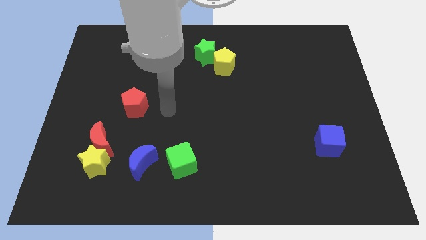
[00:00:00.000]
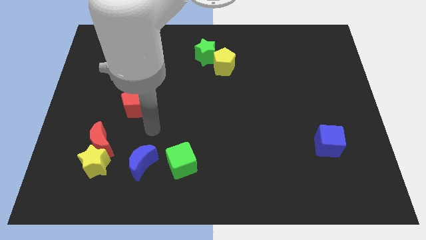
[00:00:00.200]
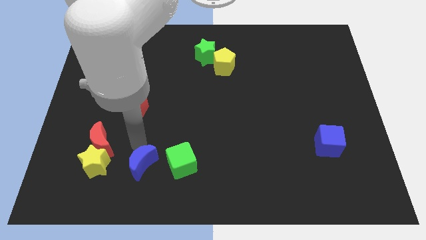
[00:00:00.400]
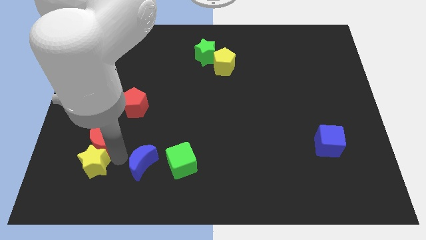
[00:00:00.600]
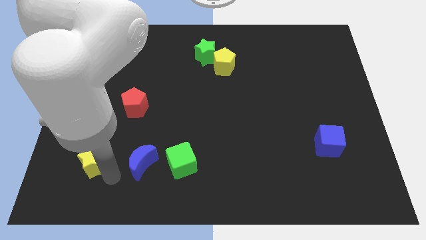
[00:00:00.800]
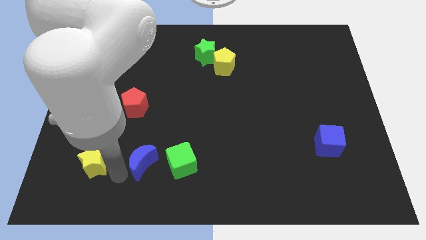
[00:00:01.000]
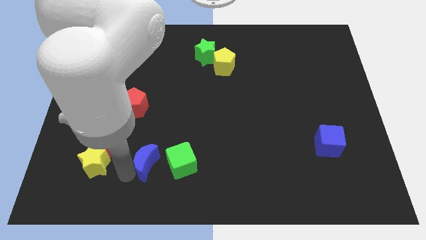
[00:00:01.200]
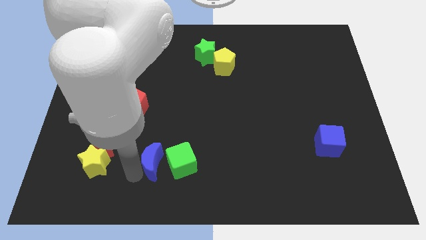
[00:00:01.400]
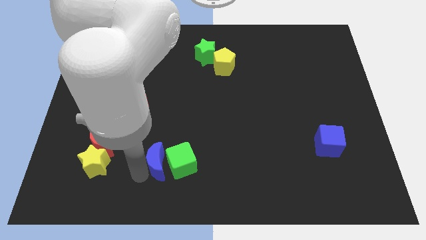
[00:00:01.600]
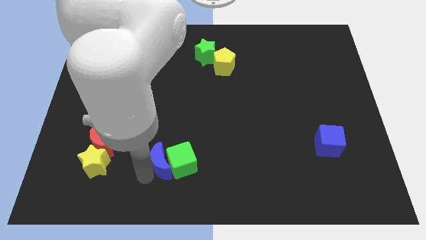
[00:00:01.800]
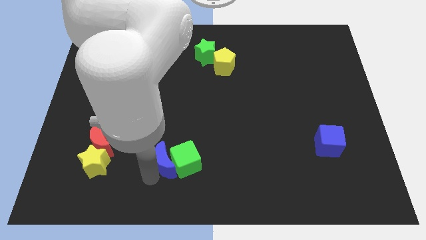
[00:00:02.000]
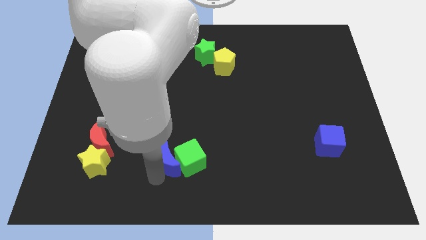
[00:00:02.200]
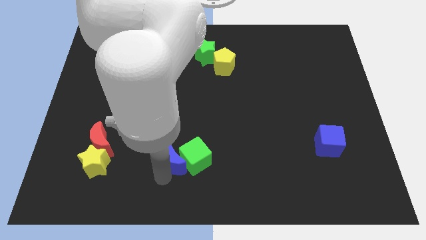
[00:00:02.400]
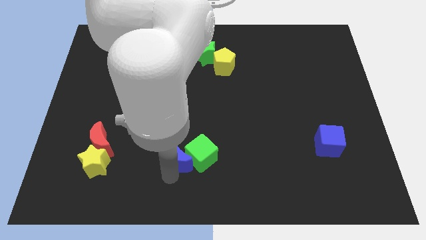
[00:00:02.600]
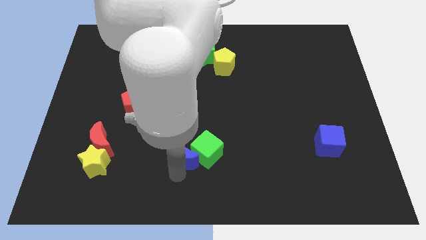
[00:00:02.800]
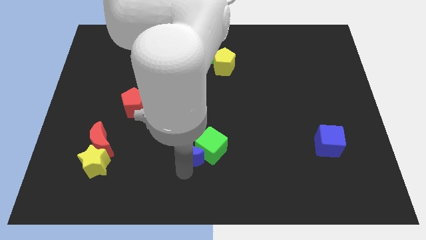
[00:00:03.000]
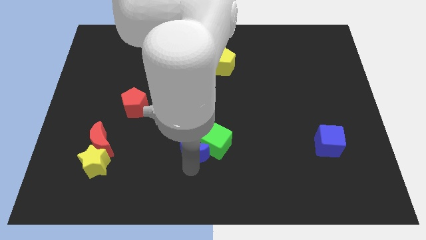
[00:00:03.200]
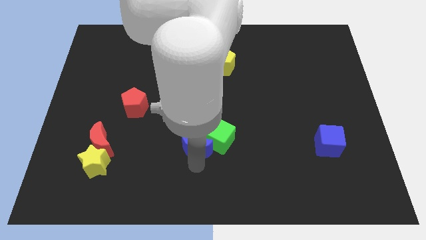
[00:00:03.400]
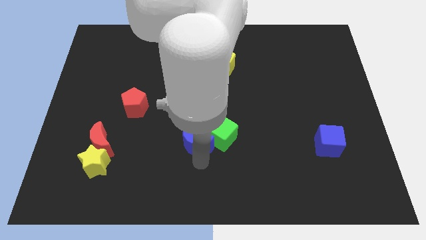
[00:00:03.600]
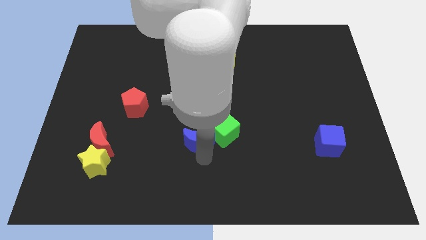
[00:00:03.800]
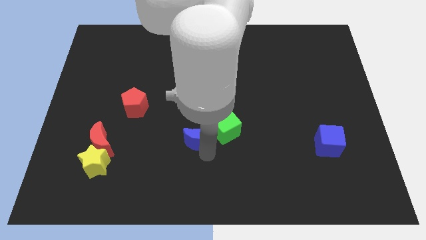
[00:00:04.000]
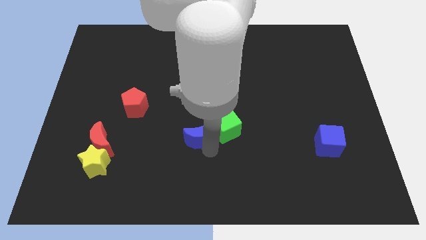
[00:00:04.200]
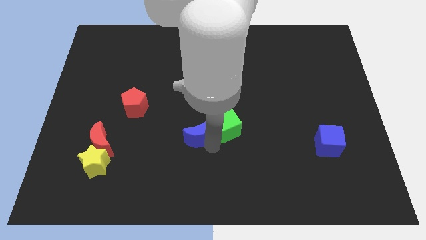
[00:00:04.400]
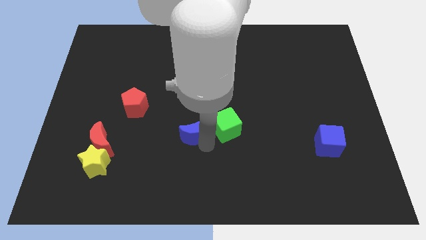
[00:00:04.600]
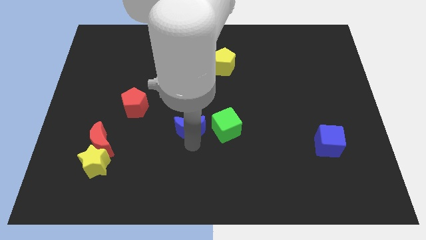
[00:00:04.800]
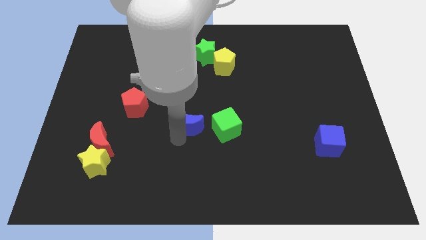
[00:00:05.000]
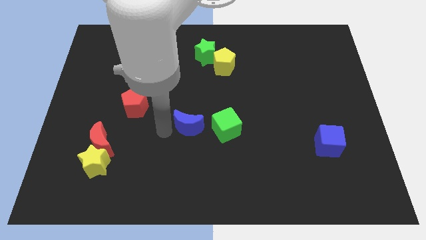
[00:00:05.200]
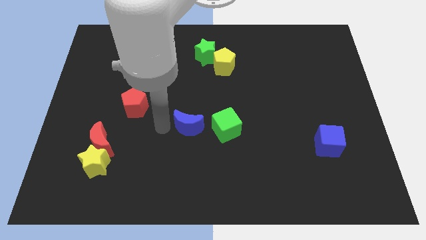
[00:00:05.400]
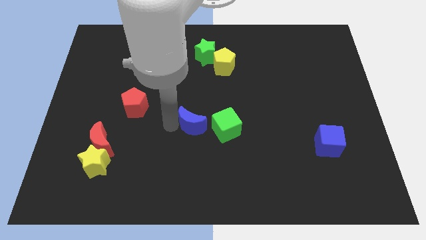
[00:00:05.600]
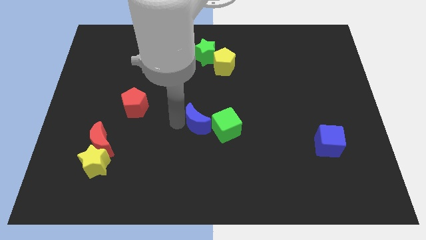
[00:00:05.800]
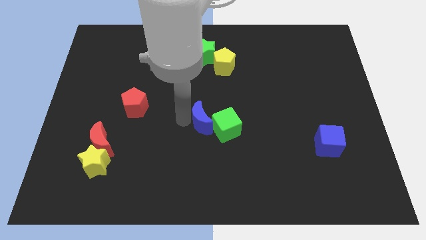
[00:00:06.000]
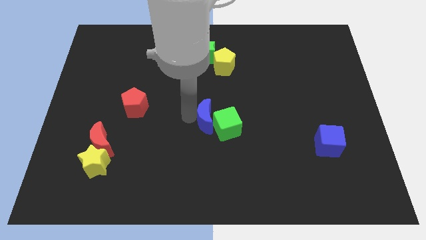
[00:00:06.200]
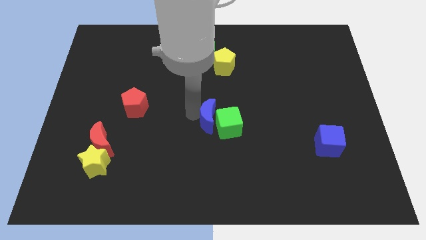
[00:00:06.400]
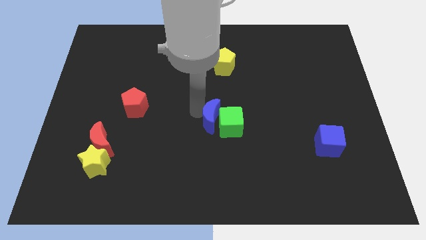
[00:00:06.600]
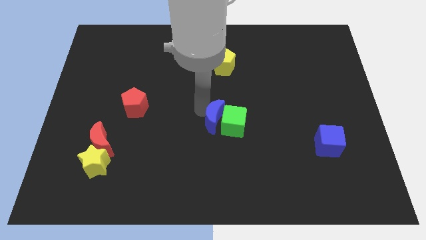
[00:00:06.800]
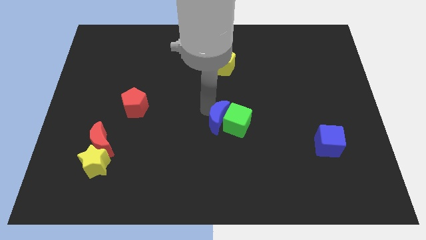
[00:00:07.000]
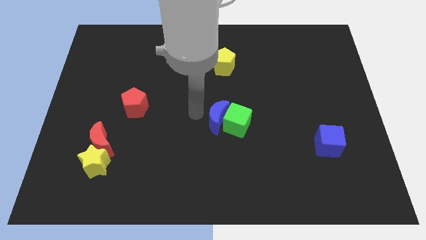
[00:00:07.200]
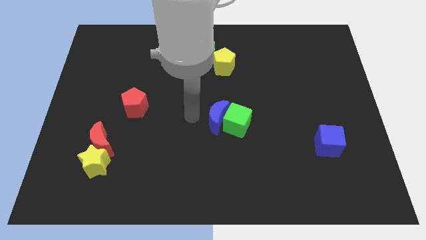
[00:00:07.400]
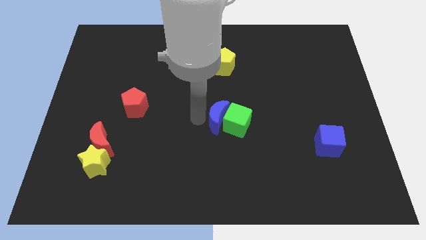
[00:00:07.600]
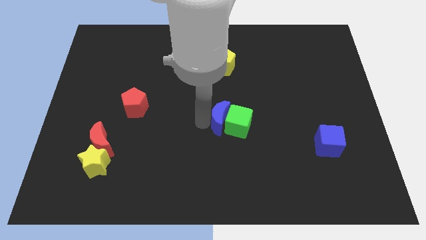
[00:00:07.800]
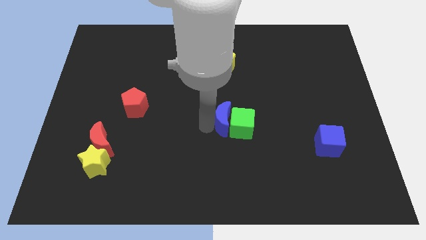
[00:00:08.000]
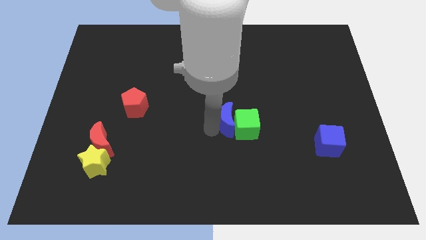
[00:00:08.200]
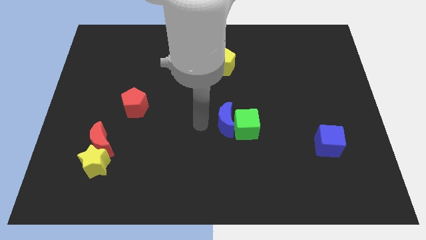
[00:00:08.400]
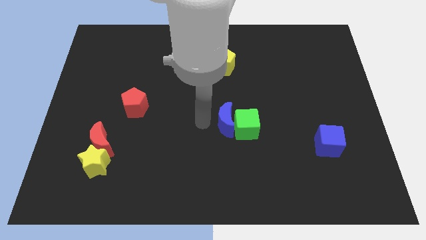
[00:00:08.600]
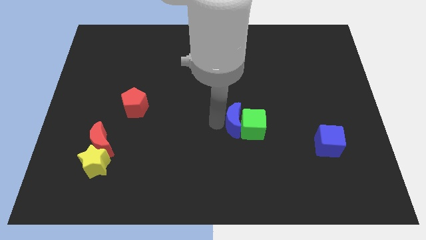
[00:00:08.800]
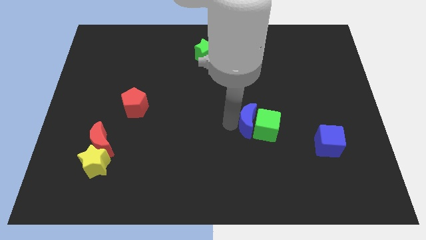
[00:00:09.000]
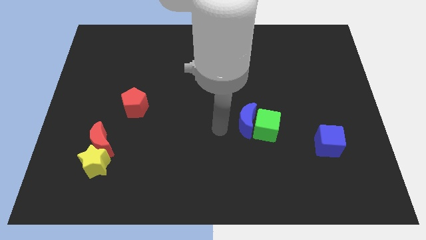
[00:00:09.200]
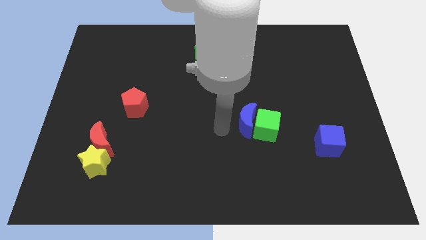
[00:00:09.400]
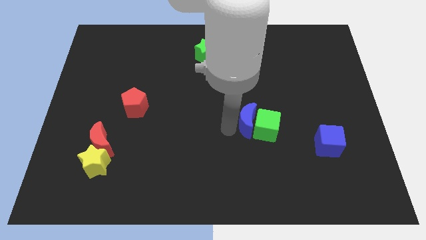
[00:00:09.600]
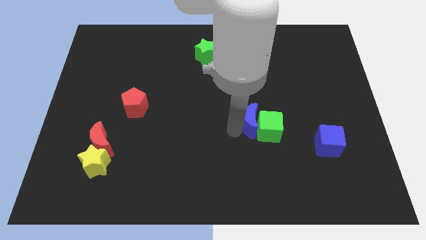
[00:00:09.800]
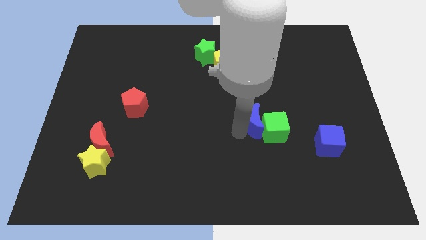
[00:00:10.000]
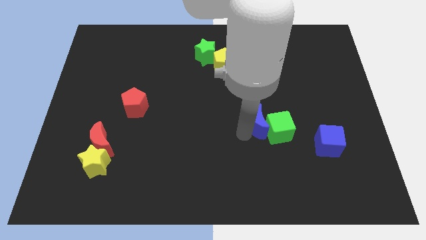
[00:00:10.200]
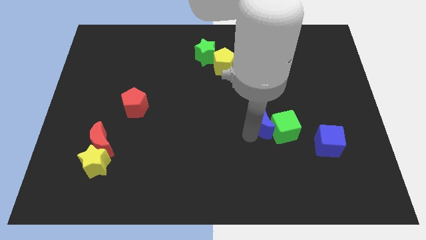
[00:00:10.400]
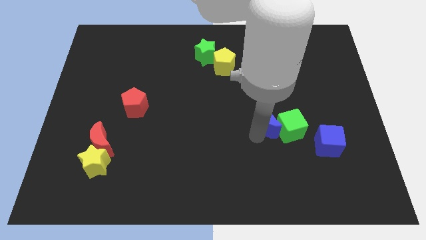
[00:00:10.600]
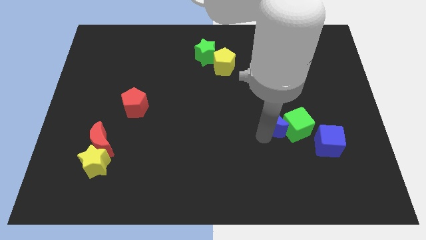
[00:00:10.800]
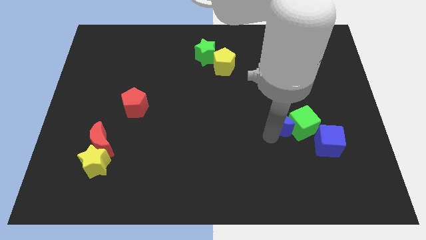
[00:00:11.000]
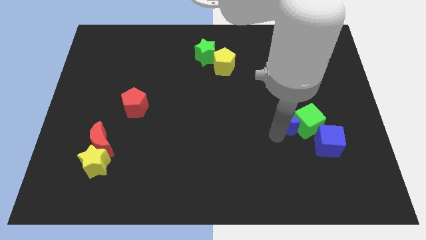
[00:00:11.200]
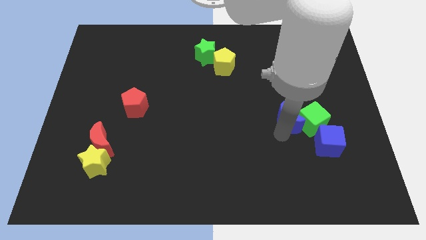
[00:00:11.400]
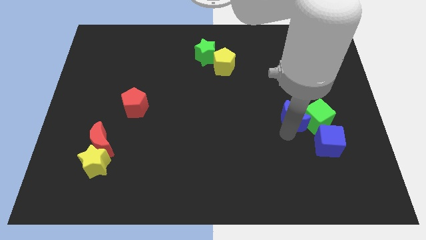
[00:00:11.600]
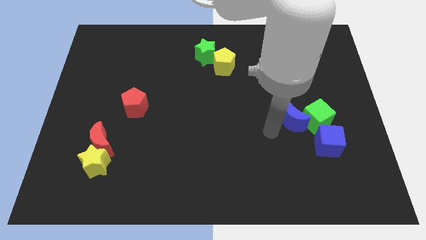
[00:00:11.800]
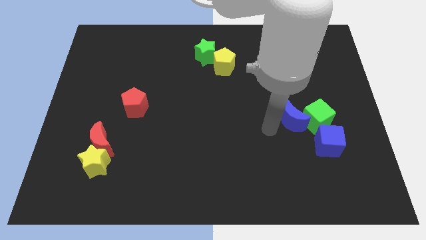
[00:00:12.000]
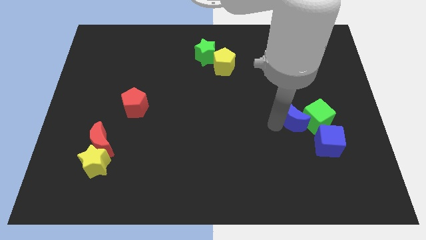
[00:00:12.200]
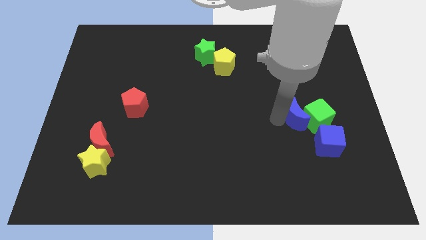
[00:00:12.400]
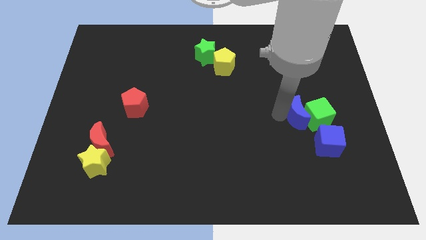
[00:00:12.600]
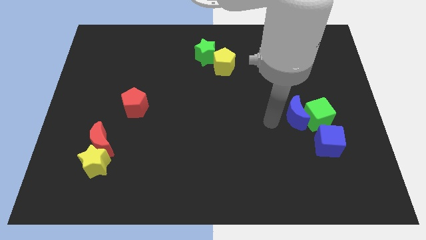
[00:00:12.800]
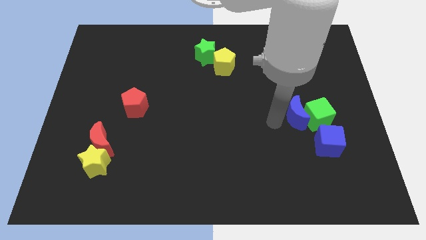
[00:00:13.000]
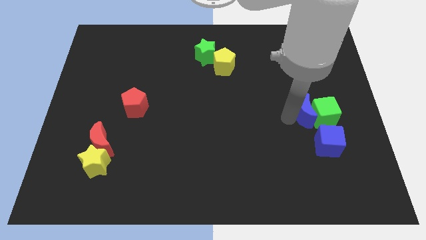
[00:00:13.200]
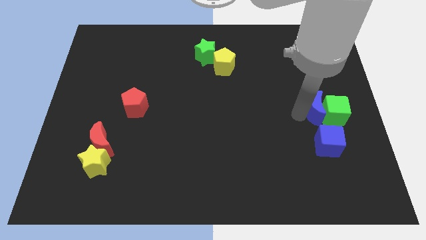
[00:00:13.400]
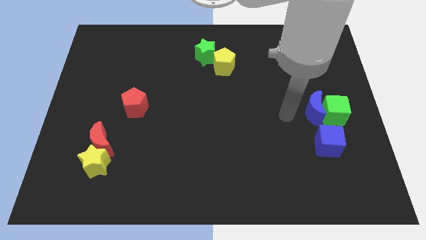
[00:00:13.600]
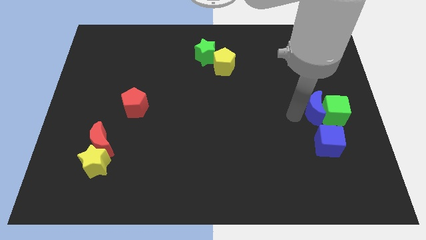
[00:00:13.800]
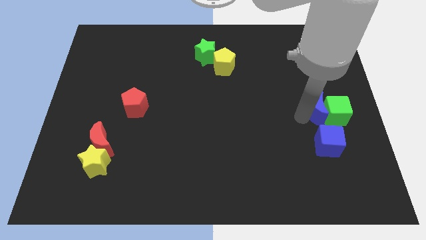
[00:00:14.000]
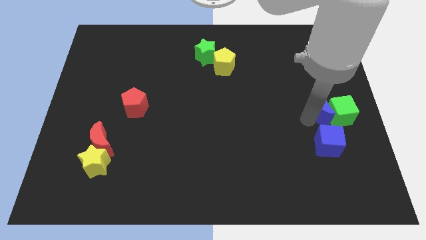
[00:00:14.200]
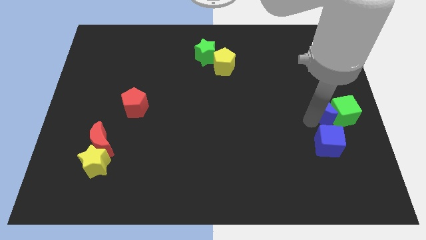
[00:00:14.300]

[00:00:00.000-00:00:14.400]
move the blue moon to the right side

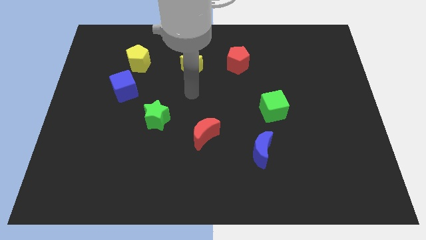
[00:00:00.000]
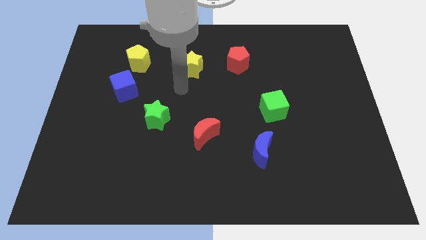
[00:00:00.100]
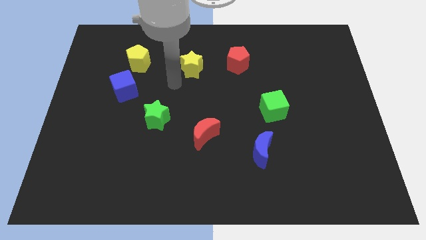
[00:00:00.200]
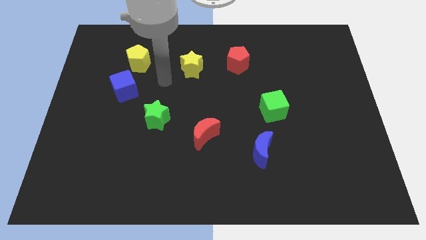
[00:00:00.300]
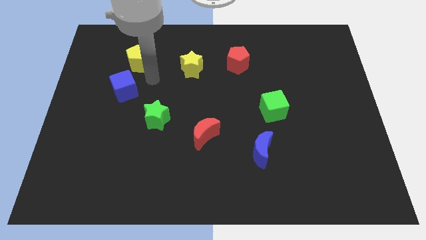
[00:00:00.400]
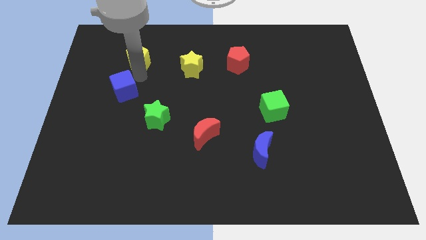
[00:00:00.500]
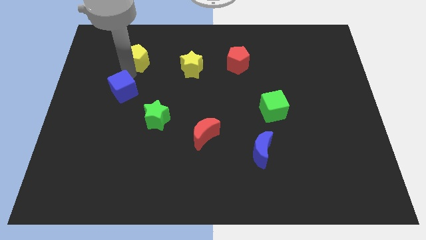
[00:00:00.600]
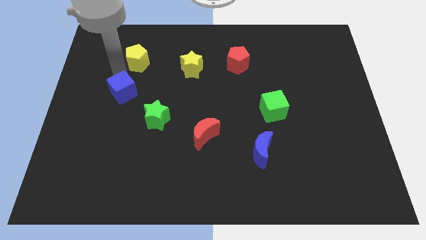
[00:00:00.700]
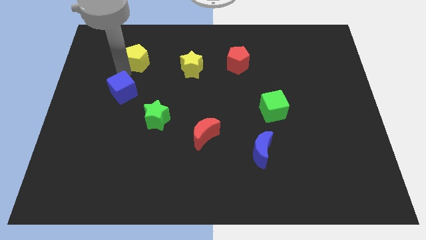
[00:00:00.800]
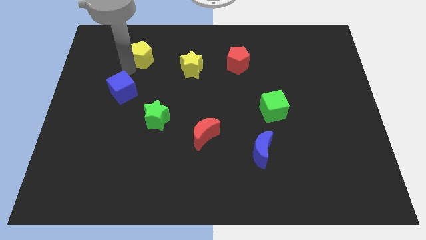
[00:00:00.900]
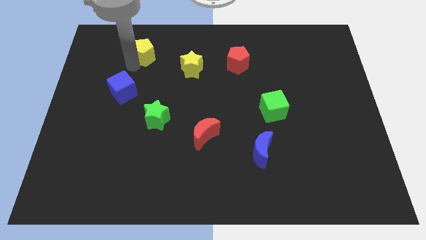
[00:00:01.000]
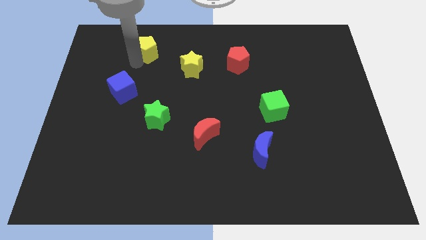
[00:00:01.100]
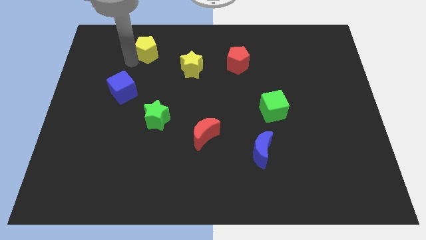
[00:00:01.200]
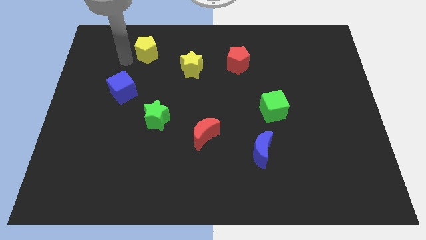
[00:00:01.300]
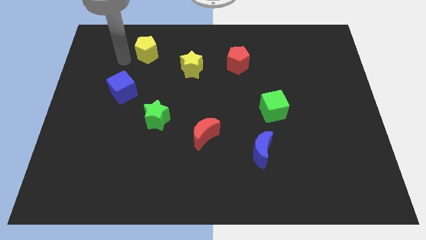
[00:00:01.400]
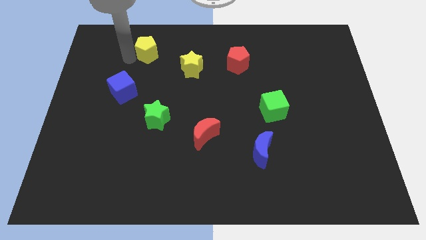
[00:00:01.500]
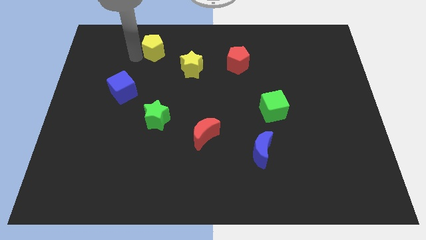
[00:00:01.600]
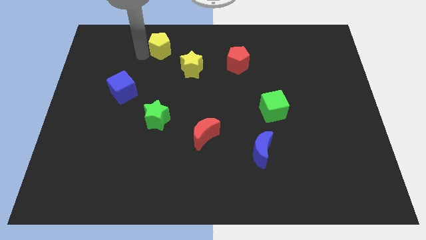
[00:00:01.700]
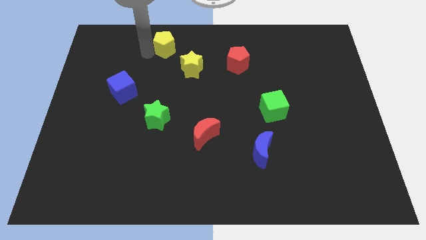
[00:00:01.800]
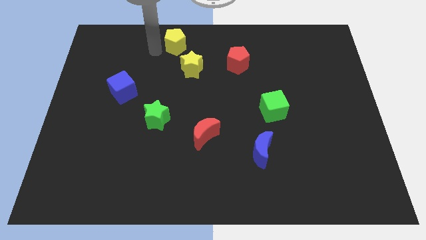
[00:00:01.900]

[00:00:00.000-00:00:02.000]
move the yellow pentagon to the top
